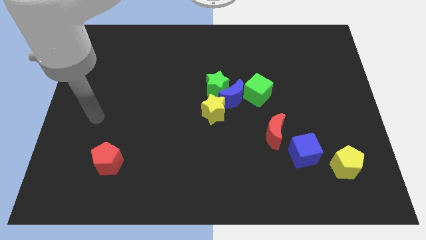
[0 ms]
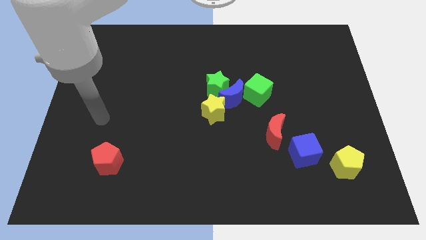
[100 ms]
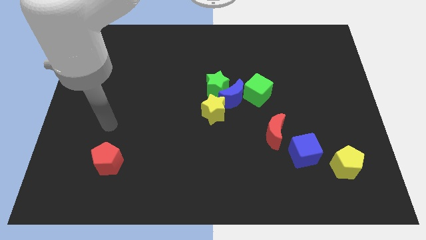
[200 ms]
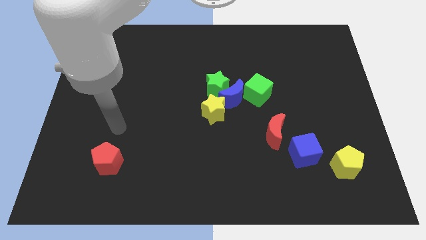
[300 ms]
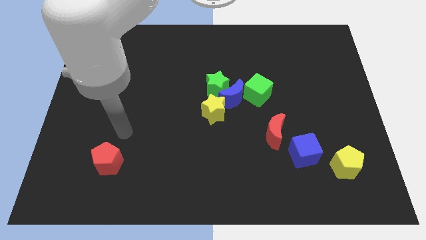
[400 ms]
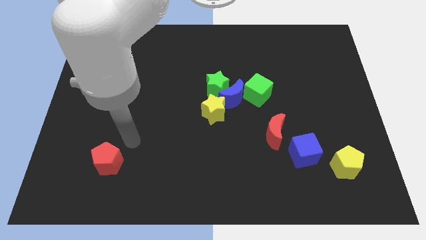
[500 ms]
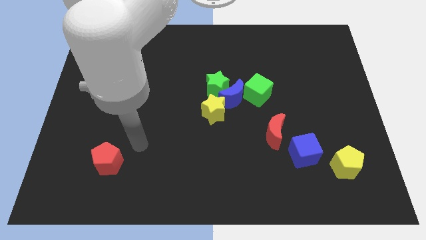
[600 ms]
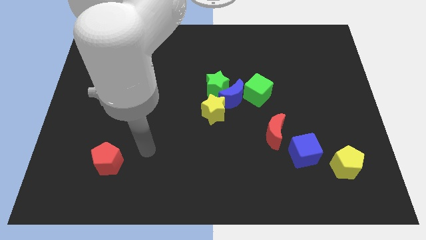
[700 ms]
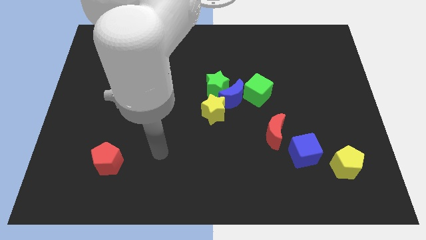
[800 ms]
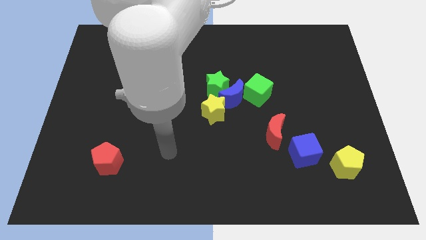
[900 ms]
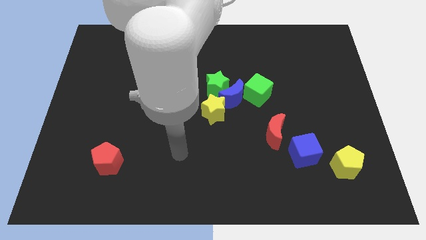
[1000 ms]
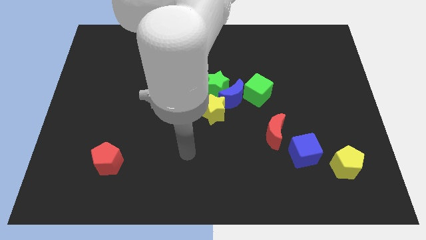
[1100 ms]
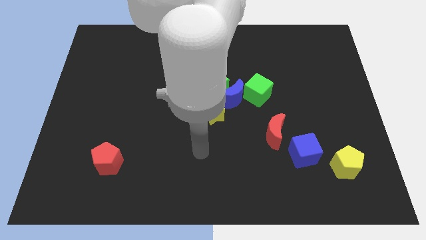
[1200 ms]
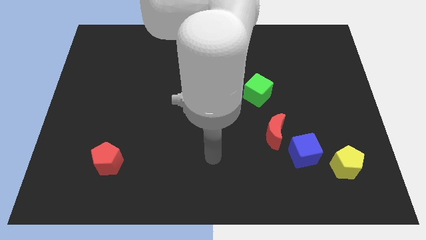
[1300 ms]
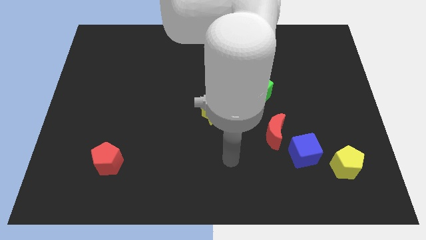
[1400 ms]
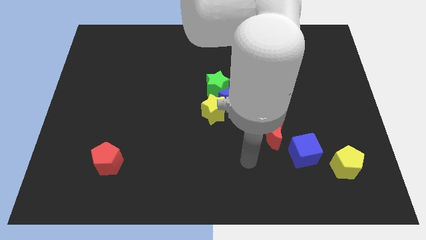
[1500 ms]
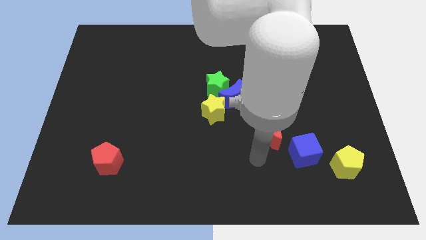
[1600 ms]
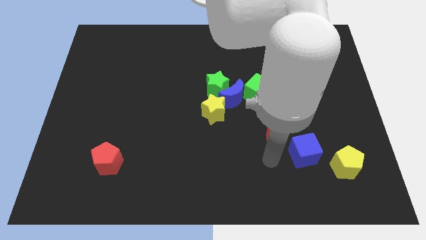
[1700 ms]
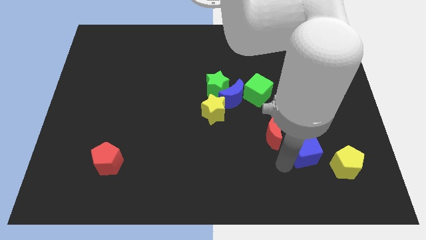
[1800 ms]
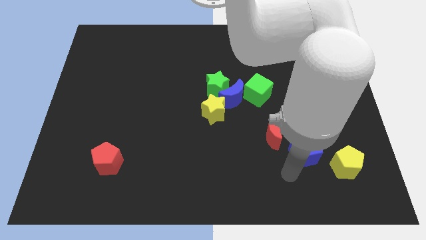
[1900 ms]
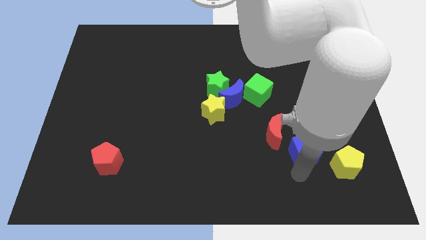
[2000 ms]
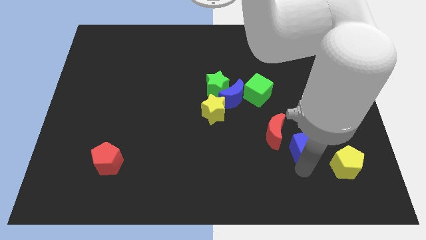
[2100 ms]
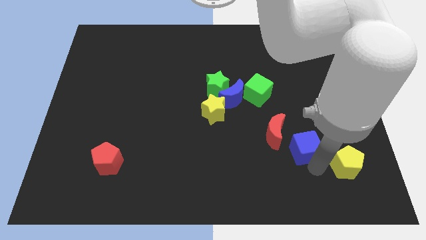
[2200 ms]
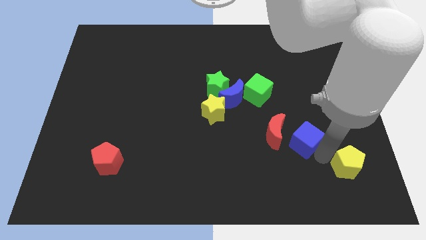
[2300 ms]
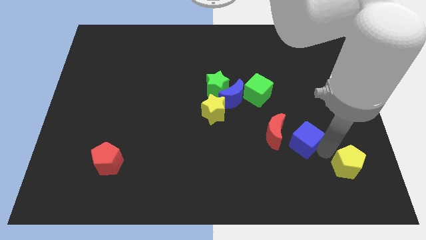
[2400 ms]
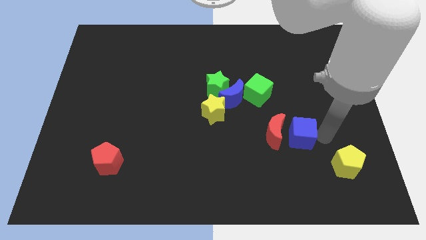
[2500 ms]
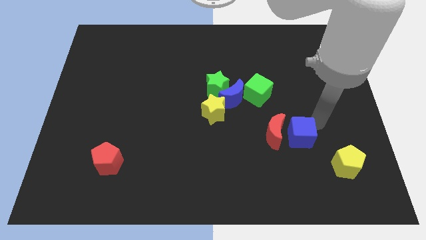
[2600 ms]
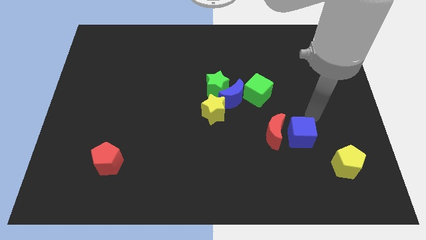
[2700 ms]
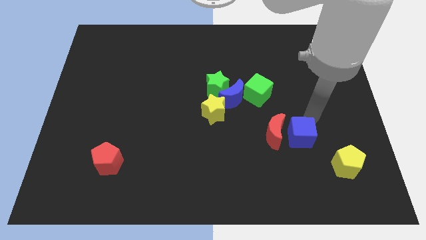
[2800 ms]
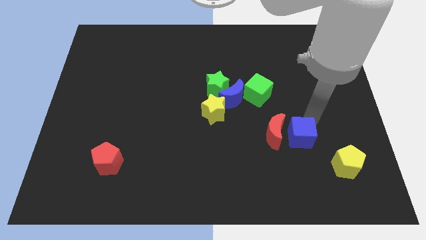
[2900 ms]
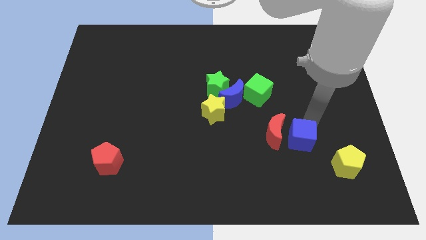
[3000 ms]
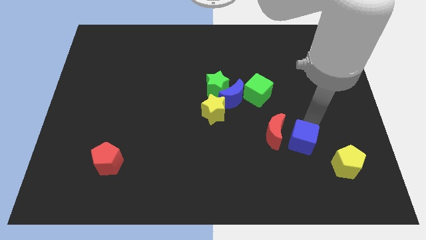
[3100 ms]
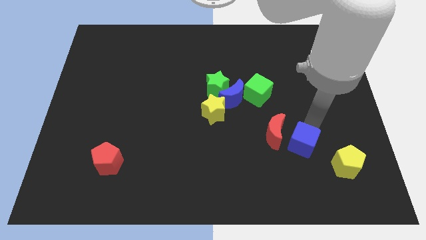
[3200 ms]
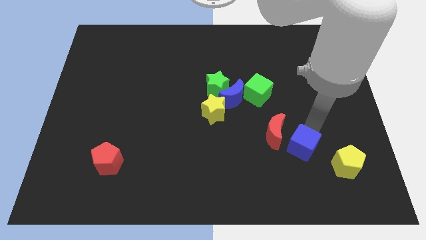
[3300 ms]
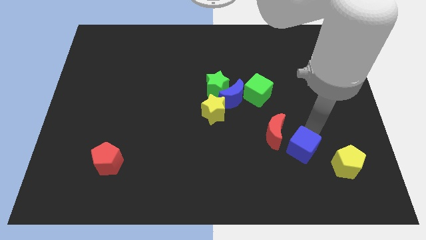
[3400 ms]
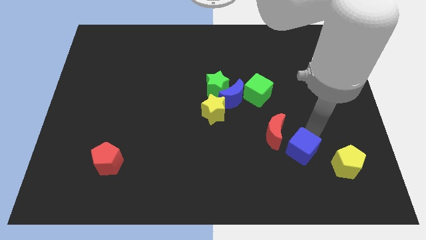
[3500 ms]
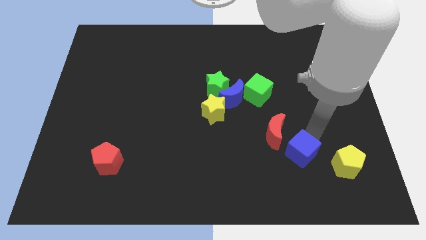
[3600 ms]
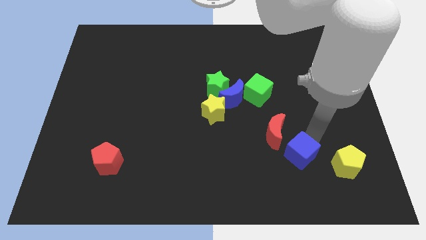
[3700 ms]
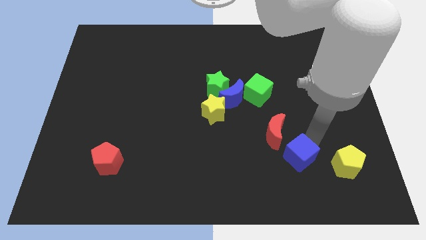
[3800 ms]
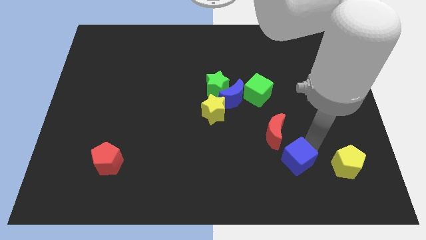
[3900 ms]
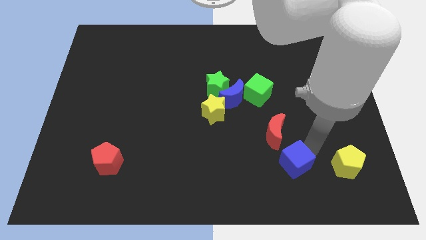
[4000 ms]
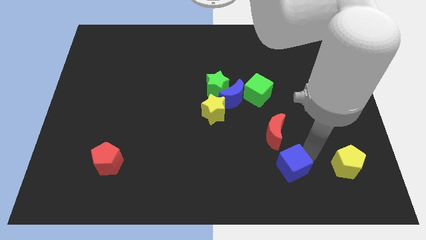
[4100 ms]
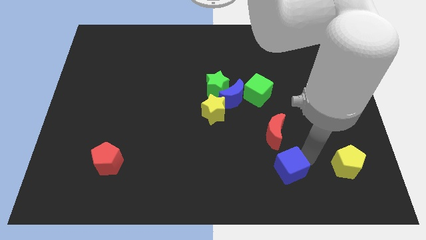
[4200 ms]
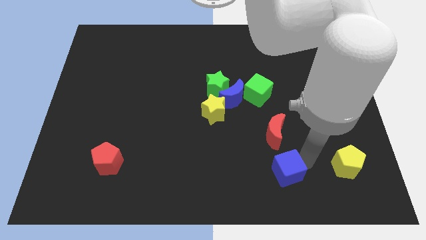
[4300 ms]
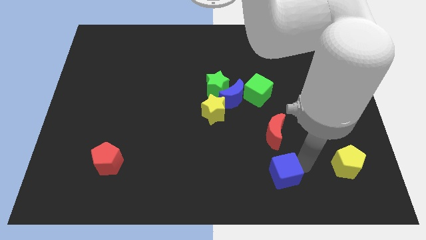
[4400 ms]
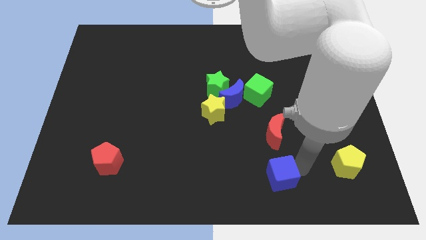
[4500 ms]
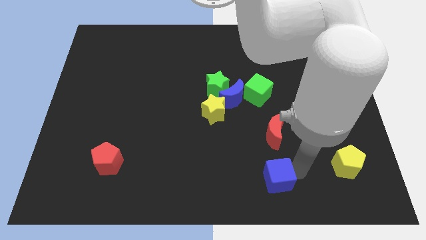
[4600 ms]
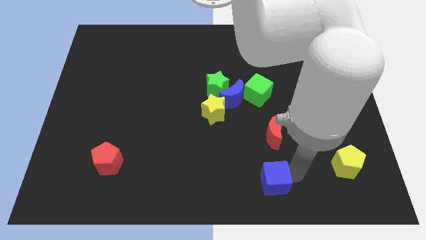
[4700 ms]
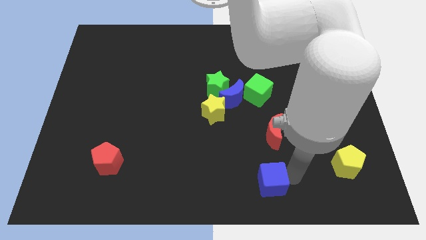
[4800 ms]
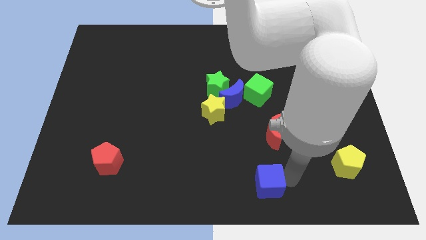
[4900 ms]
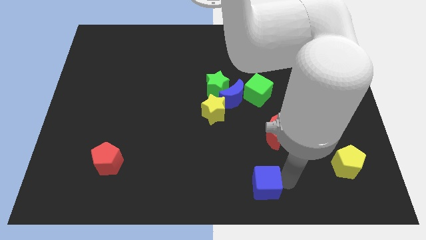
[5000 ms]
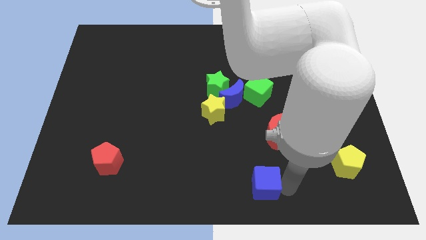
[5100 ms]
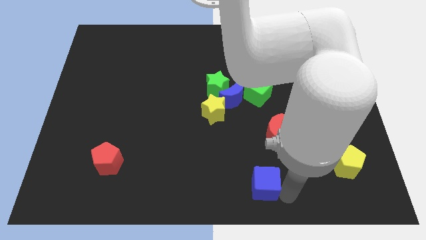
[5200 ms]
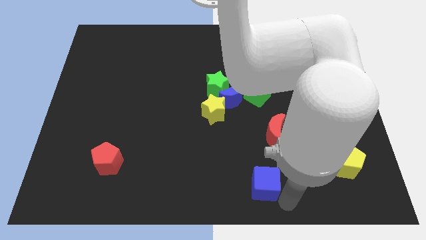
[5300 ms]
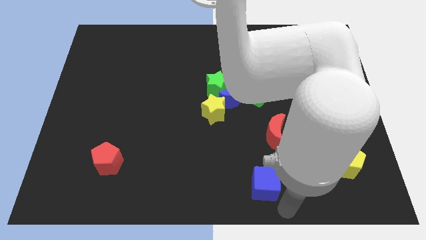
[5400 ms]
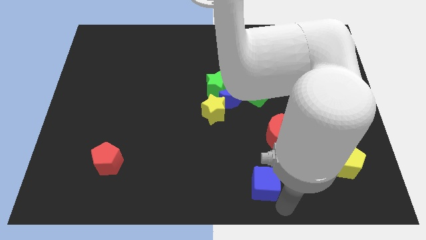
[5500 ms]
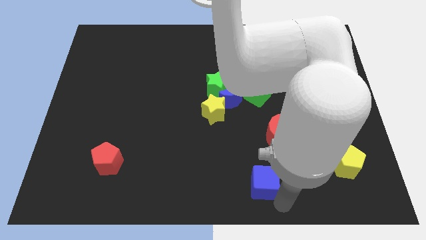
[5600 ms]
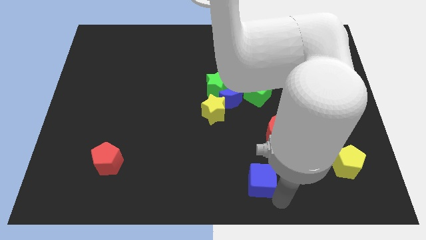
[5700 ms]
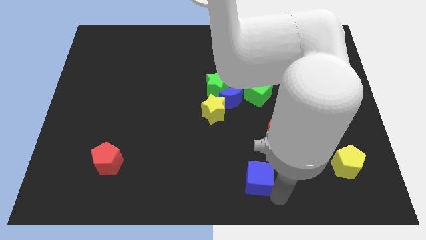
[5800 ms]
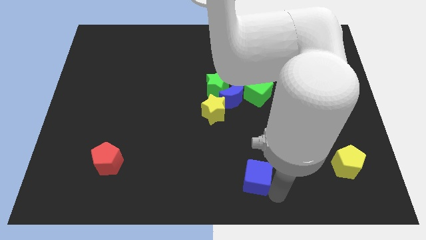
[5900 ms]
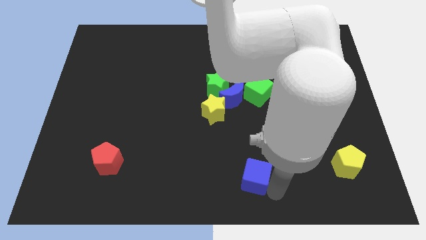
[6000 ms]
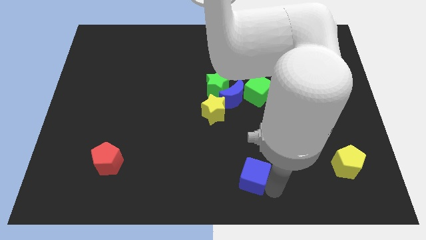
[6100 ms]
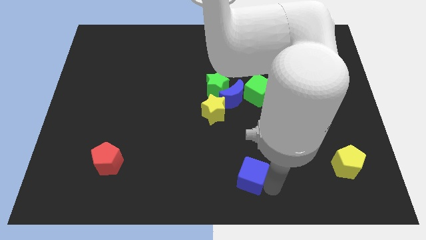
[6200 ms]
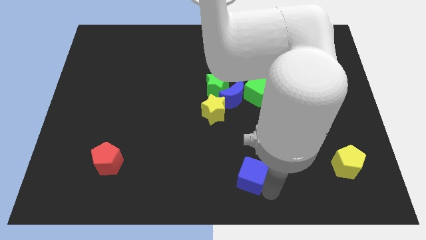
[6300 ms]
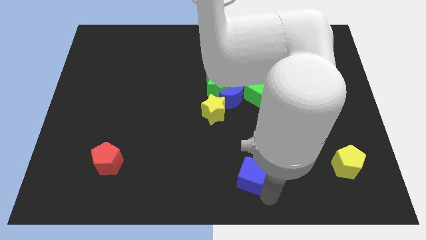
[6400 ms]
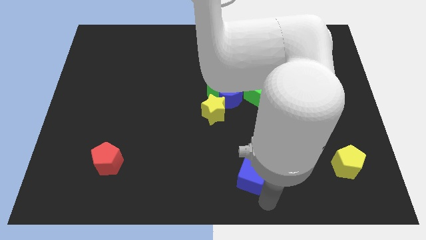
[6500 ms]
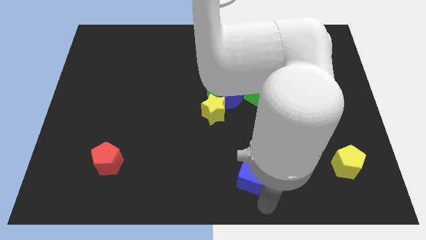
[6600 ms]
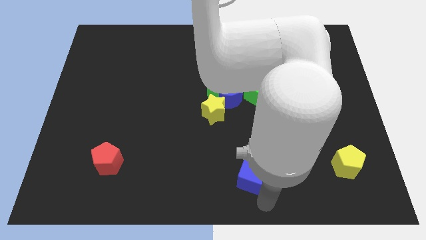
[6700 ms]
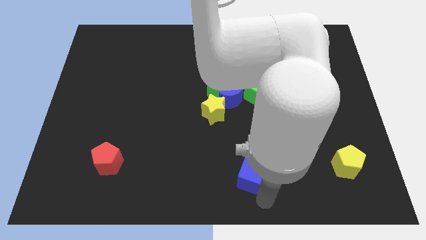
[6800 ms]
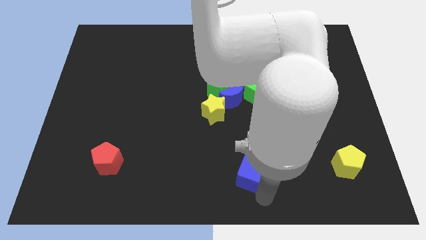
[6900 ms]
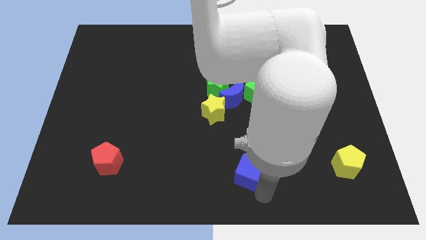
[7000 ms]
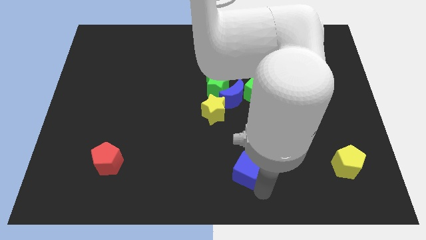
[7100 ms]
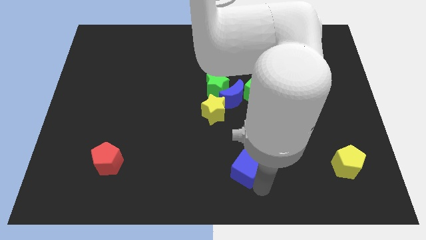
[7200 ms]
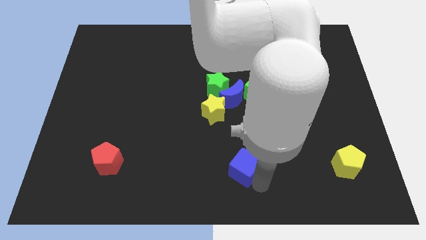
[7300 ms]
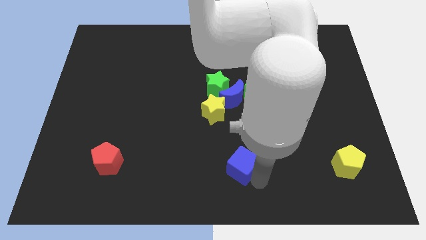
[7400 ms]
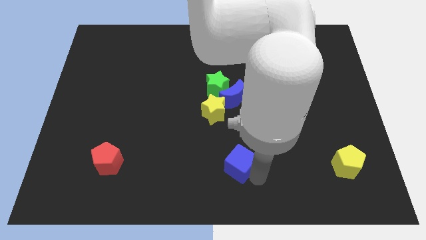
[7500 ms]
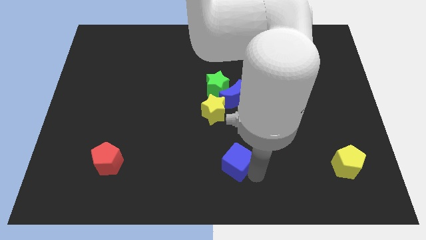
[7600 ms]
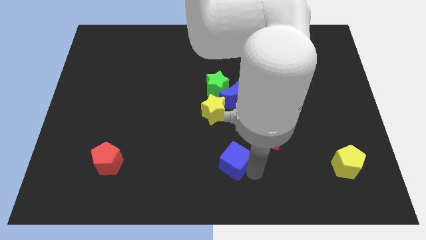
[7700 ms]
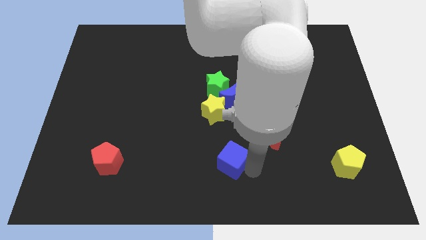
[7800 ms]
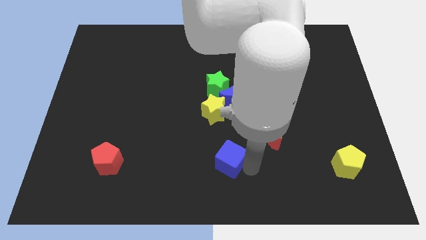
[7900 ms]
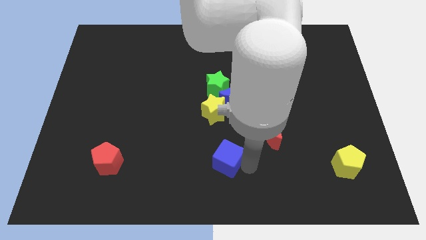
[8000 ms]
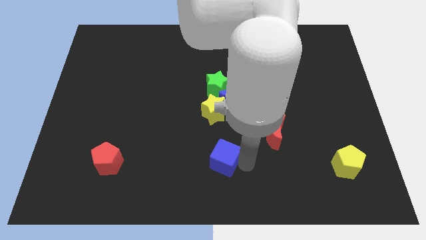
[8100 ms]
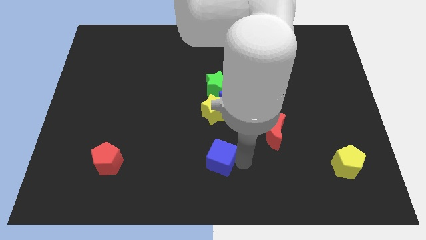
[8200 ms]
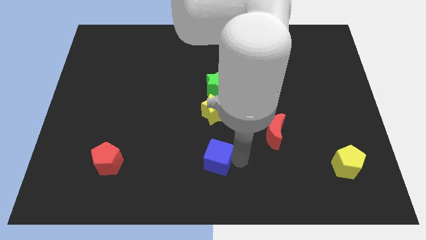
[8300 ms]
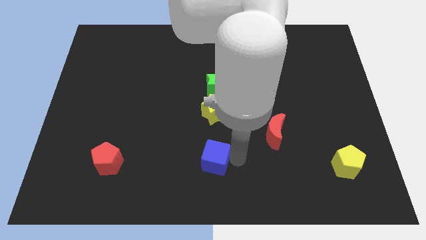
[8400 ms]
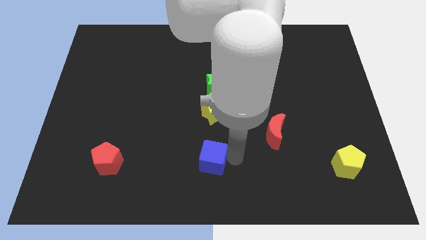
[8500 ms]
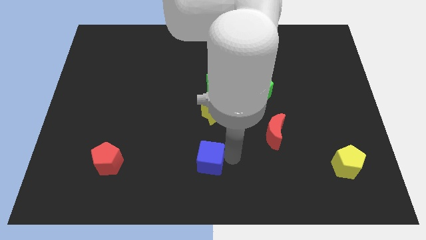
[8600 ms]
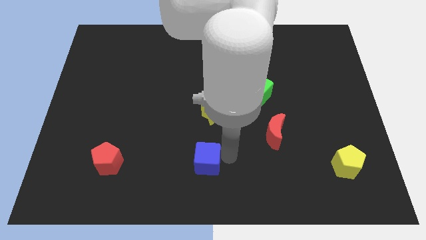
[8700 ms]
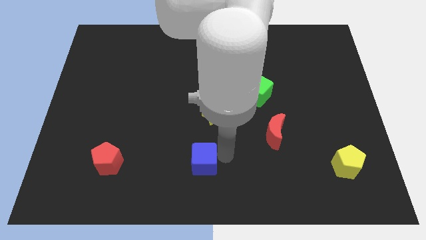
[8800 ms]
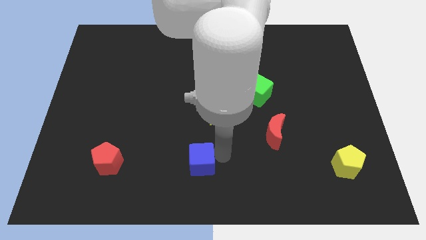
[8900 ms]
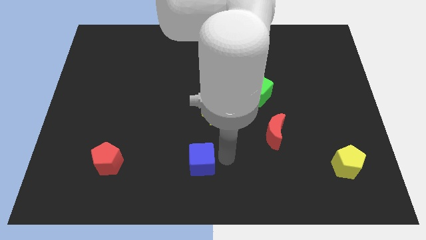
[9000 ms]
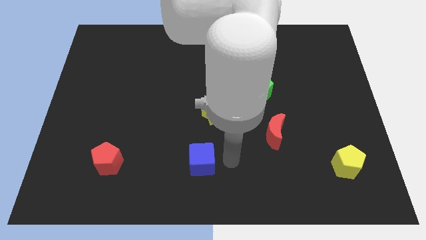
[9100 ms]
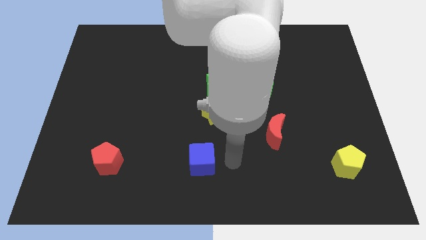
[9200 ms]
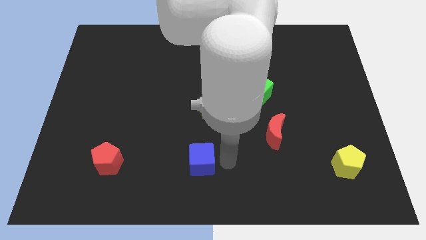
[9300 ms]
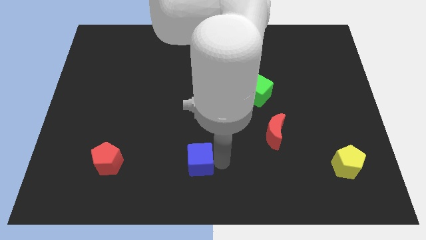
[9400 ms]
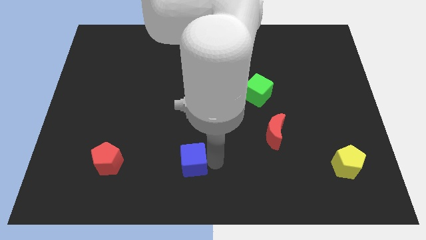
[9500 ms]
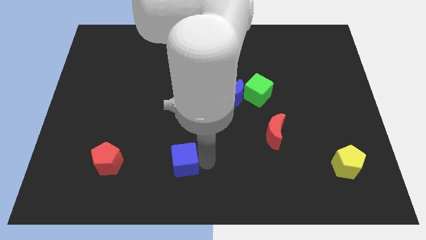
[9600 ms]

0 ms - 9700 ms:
slide the blue cube to the right side of the red pentagon
